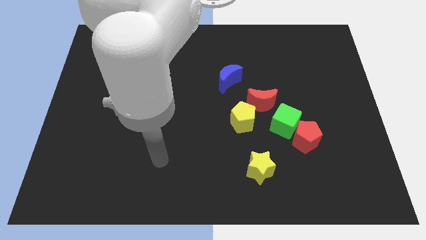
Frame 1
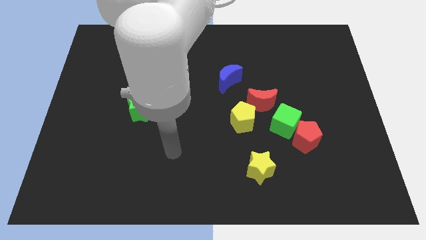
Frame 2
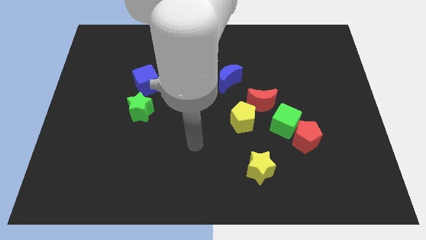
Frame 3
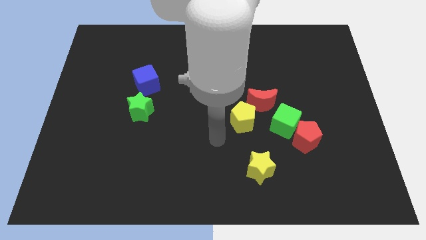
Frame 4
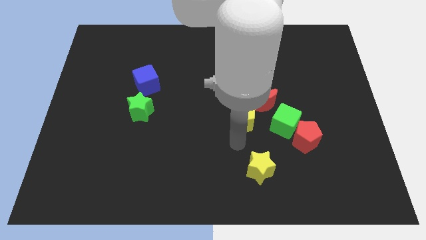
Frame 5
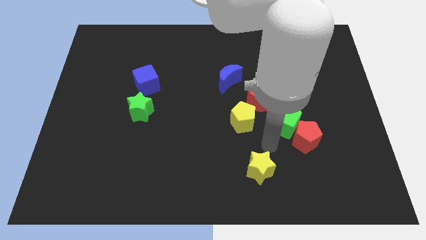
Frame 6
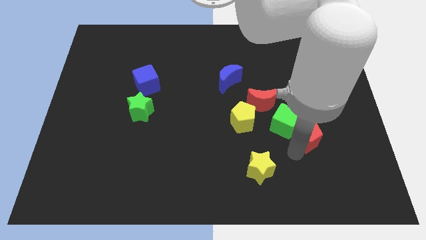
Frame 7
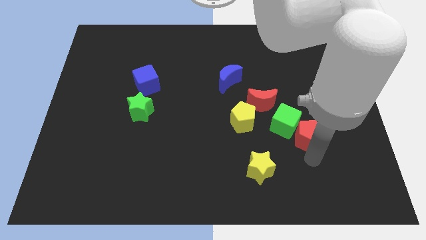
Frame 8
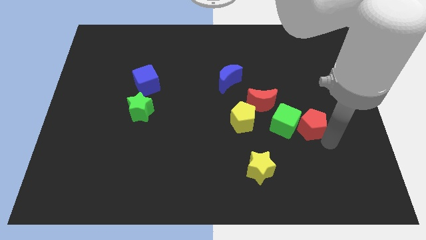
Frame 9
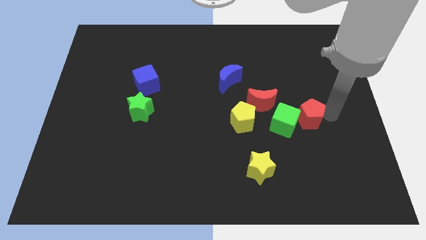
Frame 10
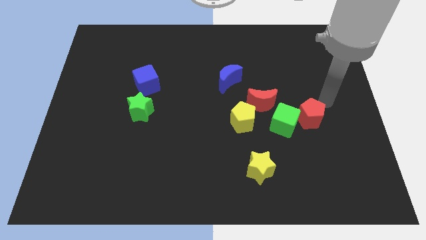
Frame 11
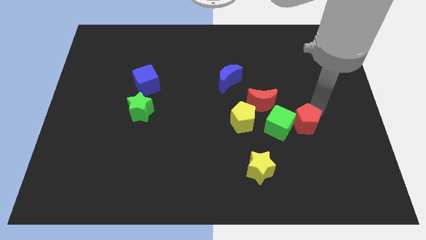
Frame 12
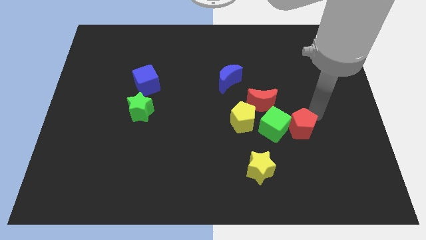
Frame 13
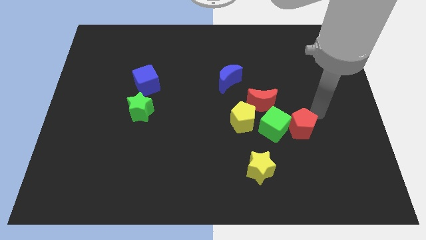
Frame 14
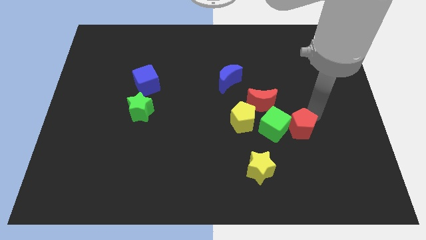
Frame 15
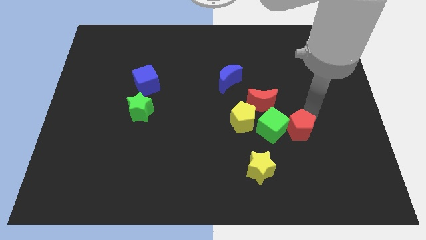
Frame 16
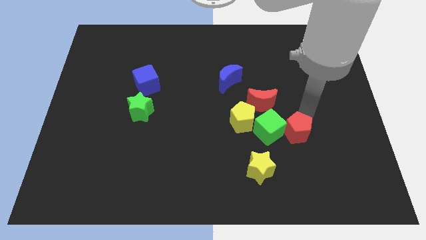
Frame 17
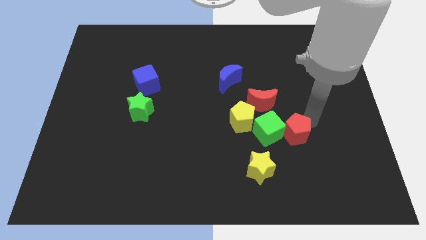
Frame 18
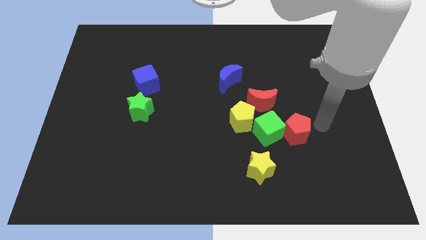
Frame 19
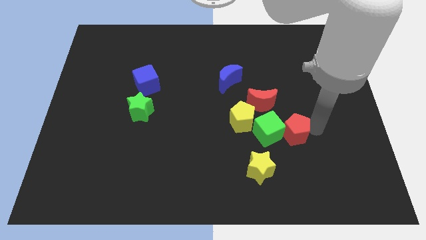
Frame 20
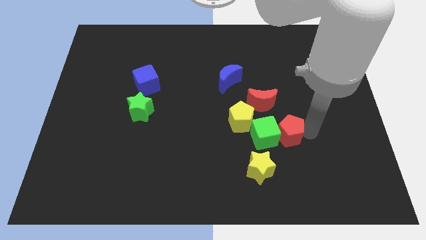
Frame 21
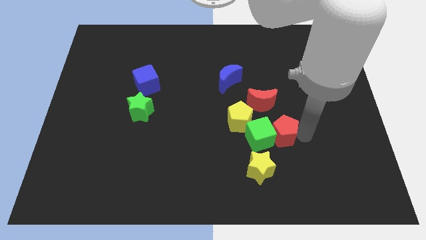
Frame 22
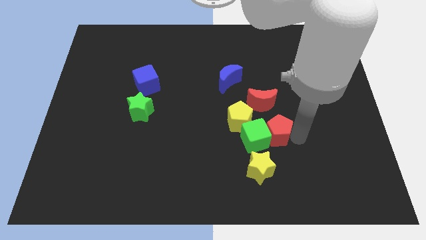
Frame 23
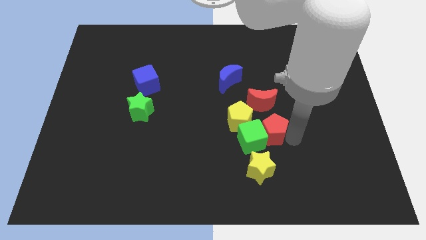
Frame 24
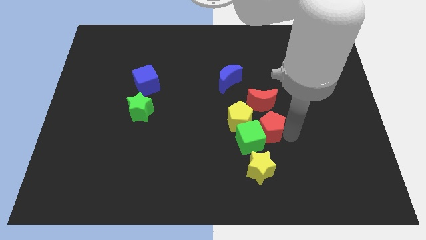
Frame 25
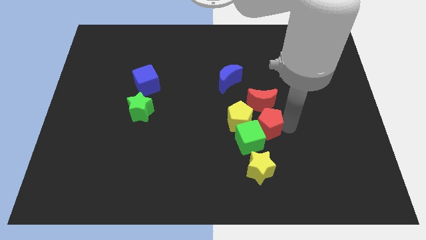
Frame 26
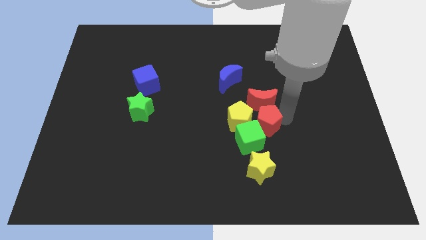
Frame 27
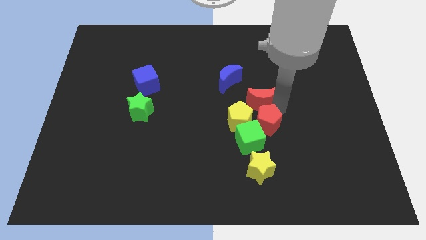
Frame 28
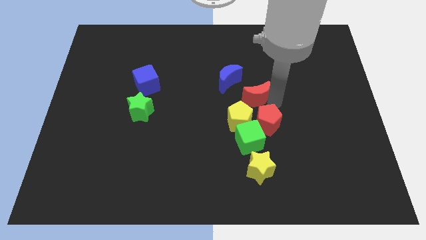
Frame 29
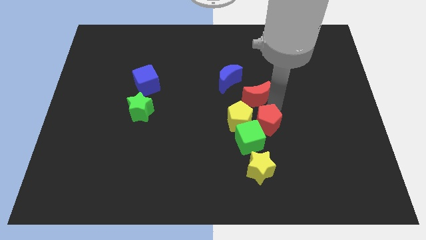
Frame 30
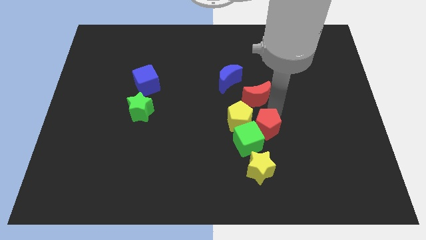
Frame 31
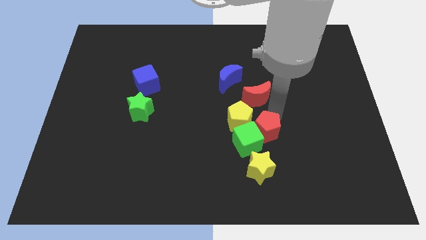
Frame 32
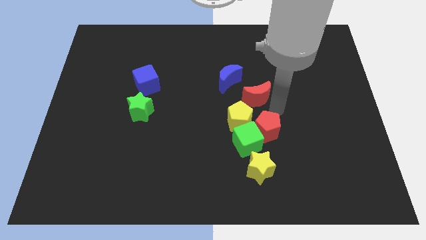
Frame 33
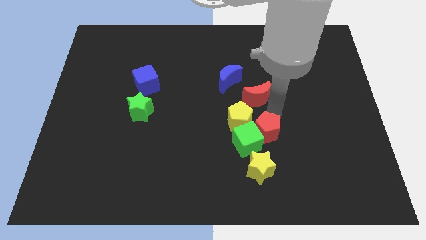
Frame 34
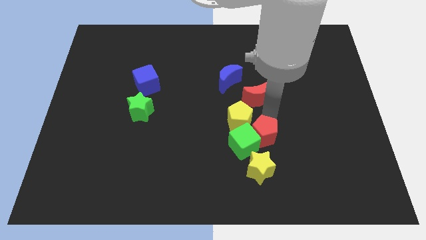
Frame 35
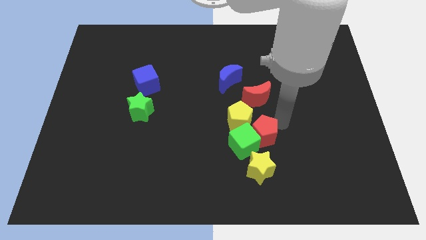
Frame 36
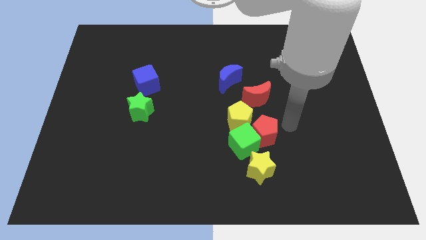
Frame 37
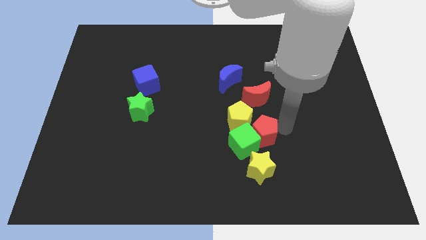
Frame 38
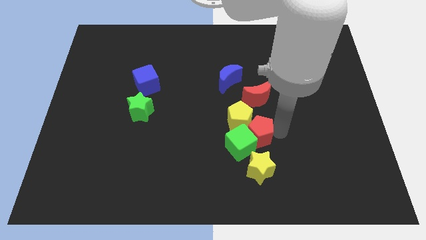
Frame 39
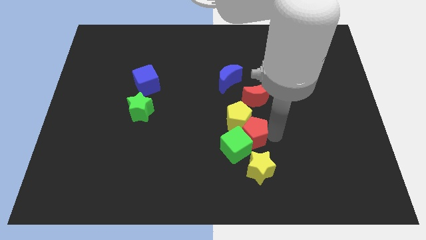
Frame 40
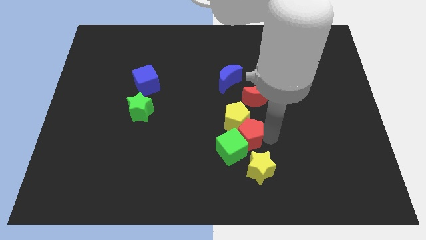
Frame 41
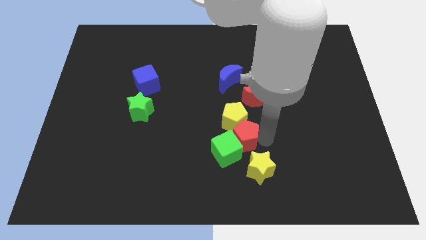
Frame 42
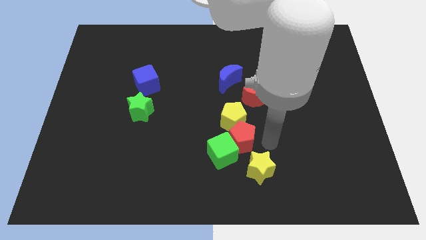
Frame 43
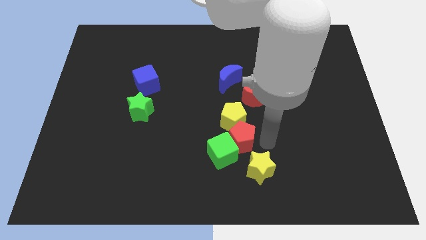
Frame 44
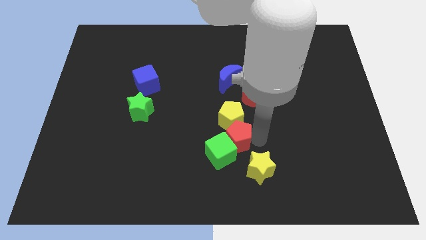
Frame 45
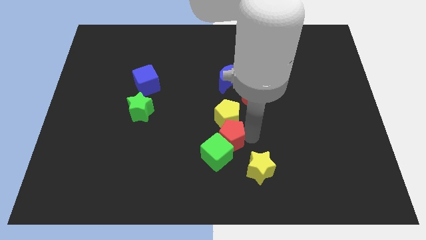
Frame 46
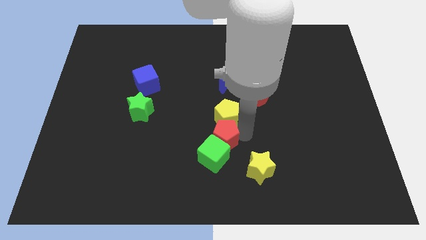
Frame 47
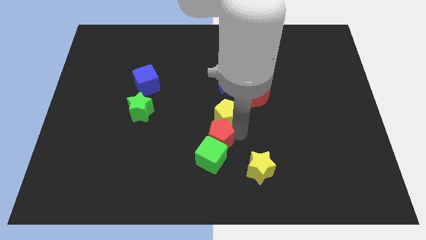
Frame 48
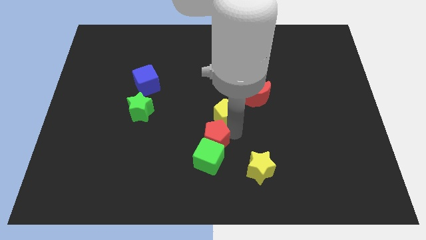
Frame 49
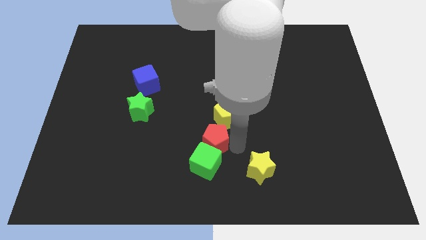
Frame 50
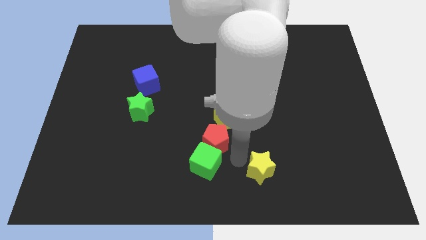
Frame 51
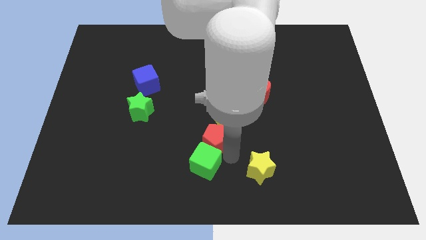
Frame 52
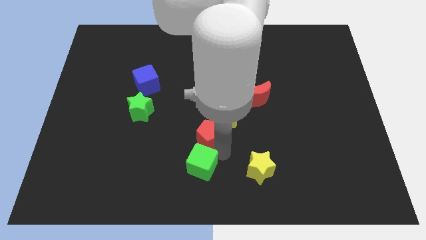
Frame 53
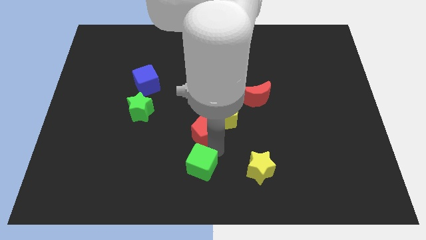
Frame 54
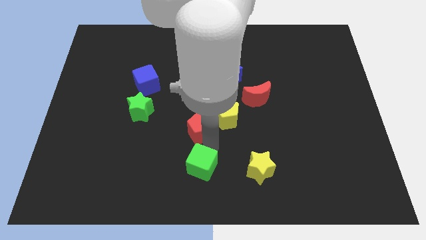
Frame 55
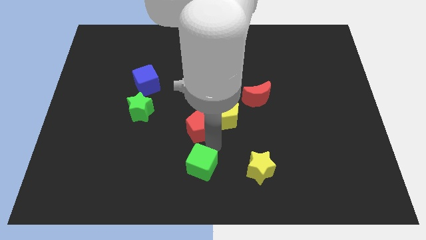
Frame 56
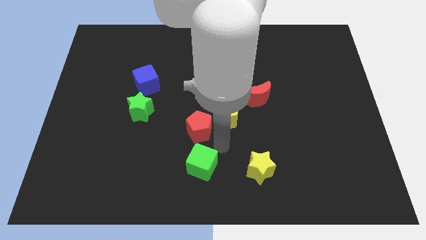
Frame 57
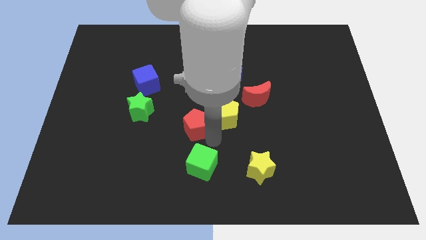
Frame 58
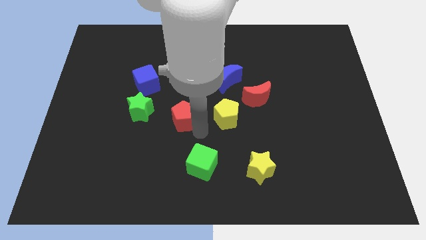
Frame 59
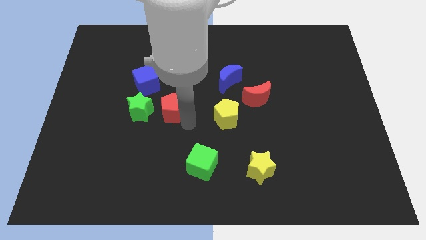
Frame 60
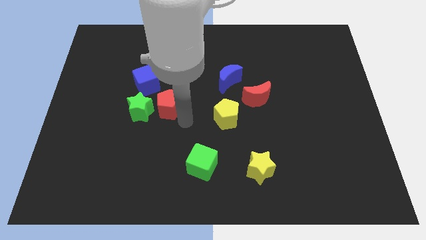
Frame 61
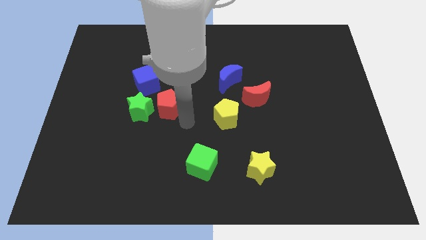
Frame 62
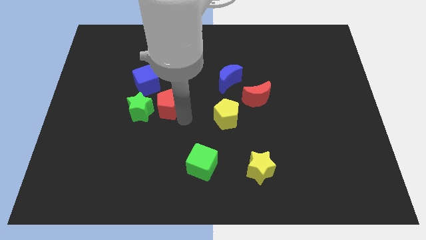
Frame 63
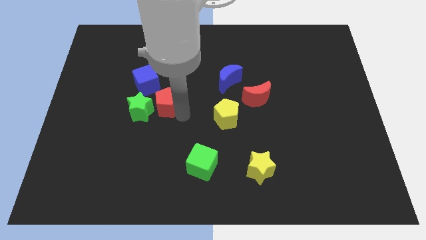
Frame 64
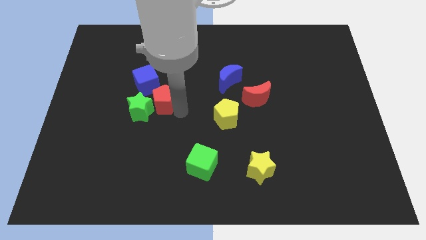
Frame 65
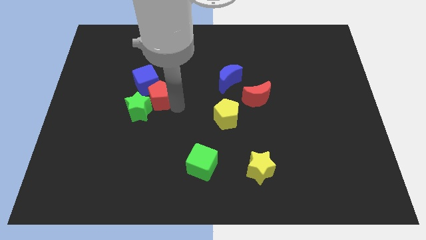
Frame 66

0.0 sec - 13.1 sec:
slide the red pentagon towards the blue cube

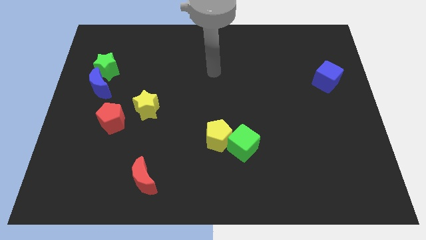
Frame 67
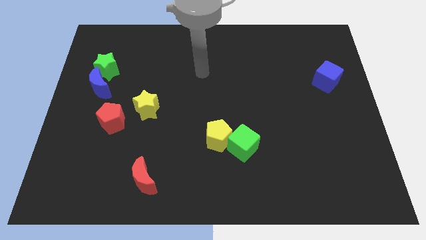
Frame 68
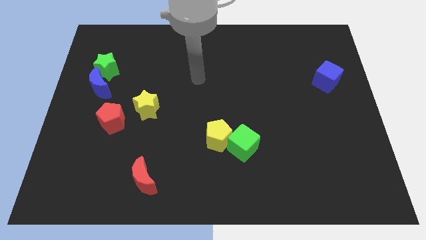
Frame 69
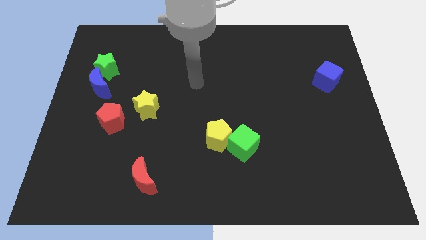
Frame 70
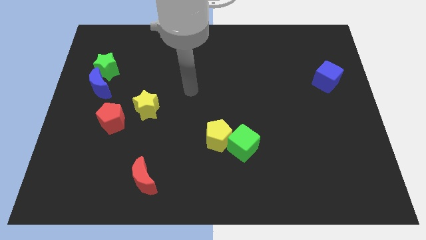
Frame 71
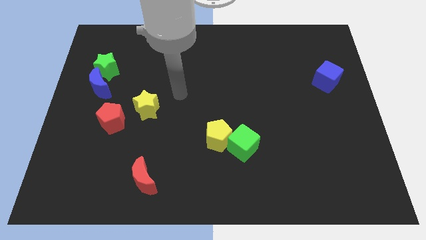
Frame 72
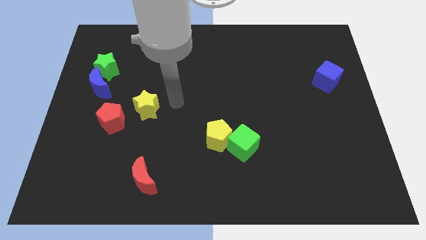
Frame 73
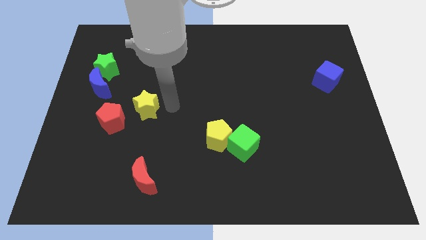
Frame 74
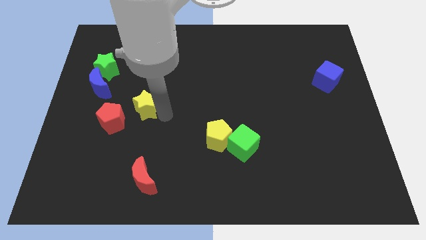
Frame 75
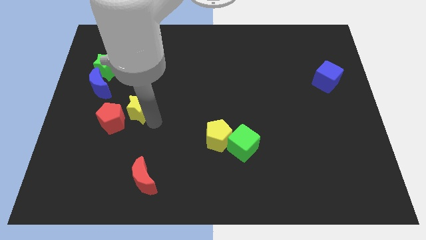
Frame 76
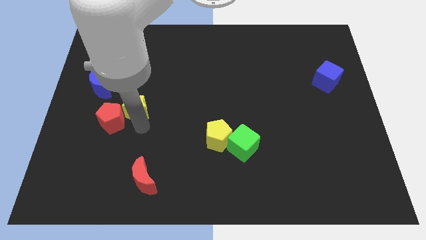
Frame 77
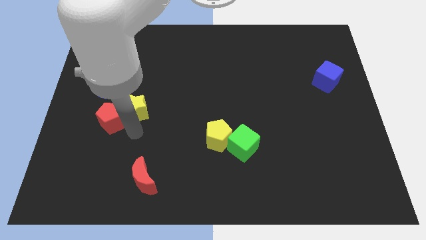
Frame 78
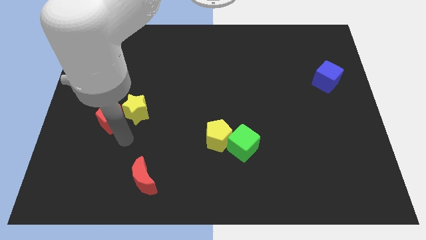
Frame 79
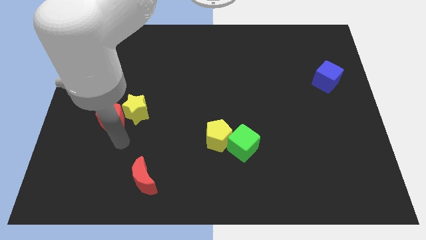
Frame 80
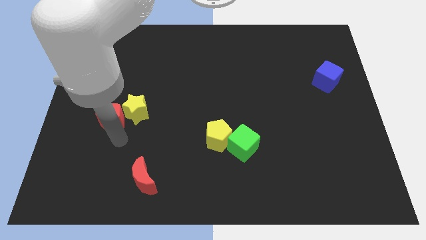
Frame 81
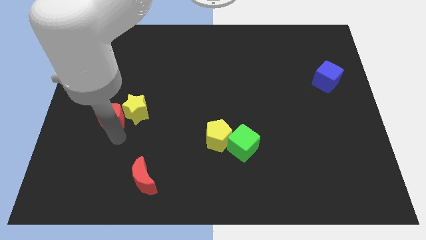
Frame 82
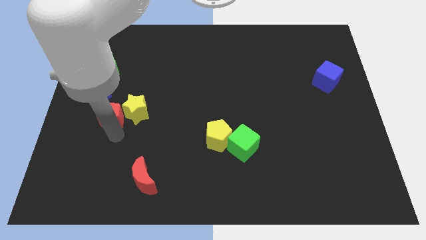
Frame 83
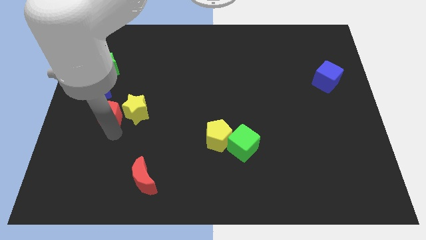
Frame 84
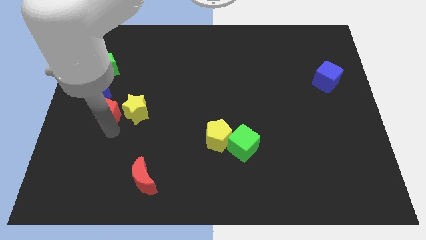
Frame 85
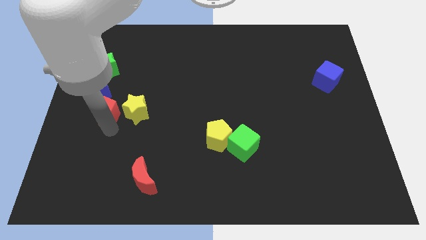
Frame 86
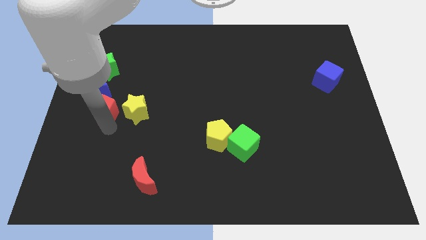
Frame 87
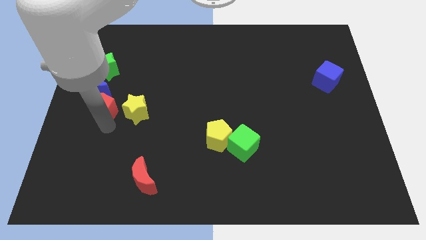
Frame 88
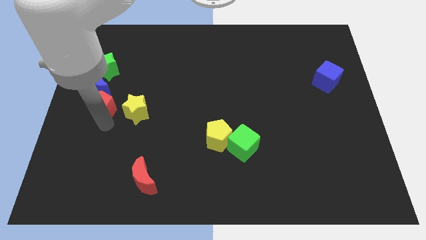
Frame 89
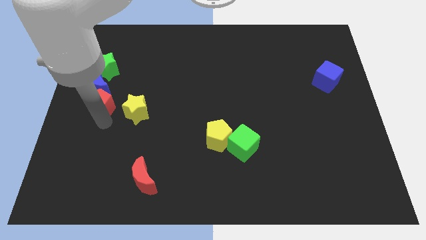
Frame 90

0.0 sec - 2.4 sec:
push the red pentagon towards the blue moon
